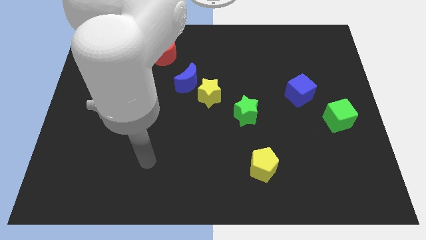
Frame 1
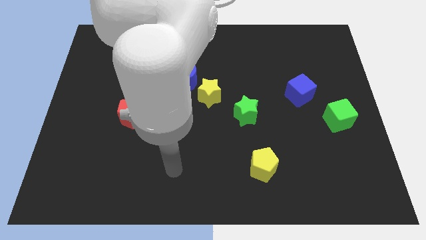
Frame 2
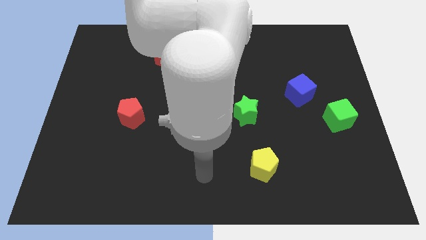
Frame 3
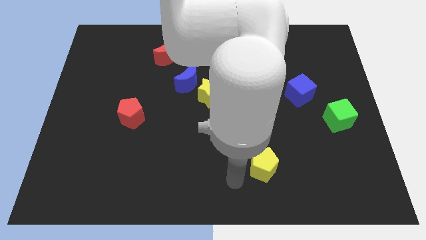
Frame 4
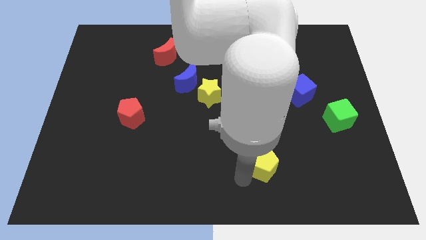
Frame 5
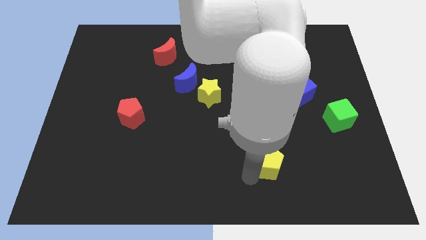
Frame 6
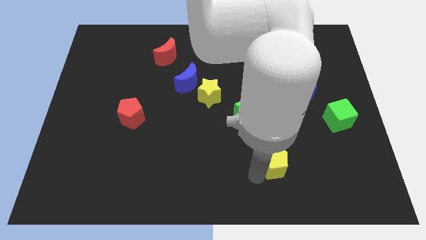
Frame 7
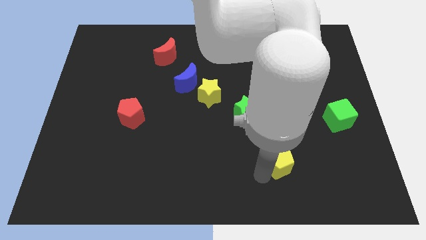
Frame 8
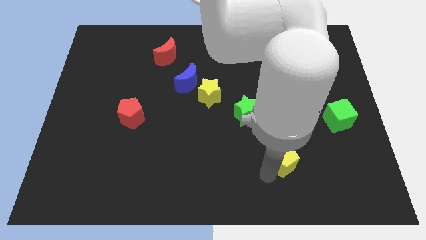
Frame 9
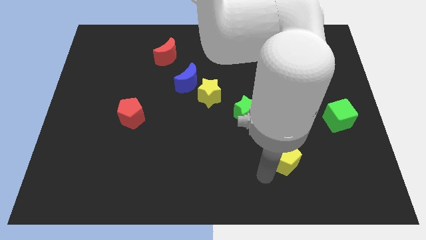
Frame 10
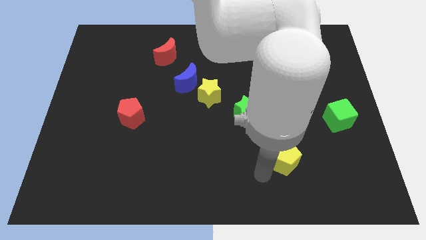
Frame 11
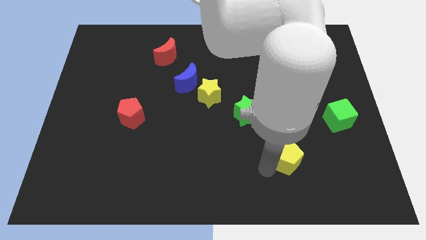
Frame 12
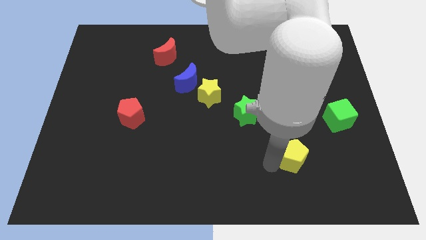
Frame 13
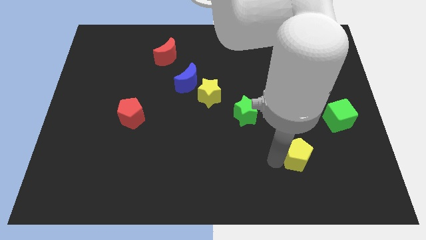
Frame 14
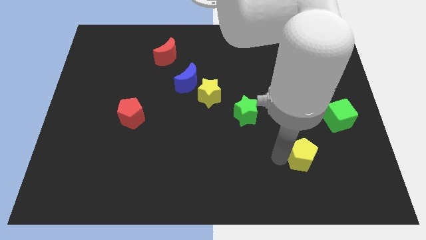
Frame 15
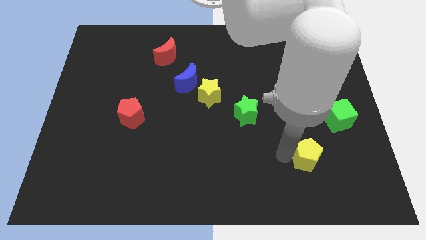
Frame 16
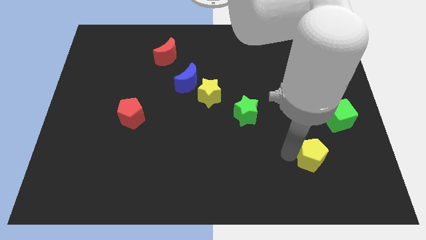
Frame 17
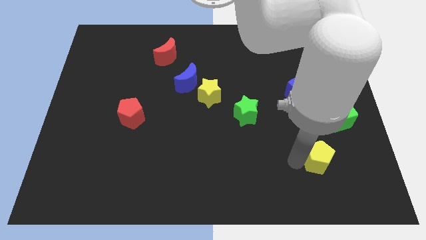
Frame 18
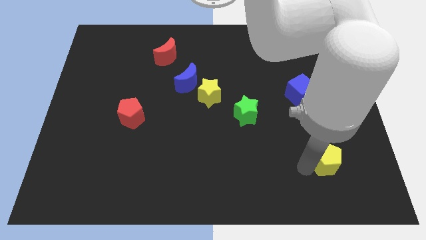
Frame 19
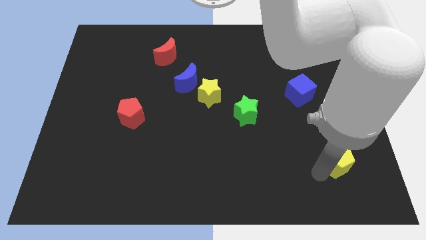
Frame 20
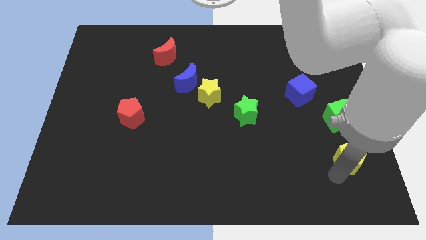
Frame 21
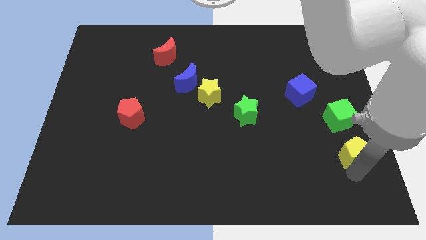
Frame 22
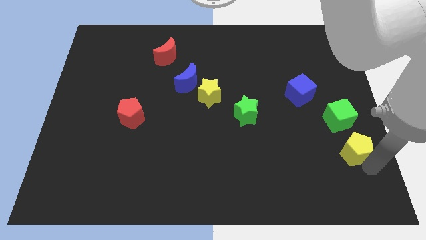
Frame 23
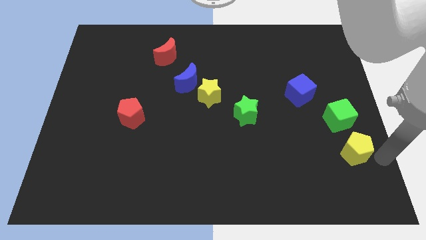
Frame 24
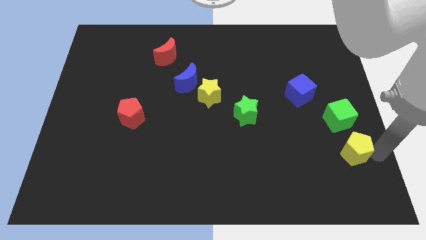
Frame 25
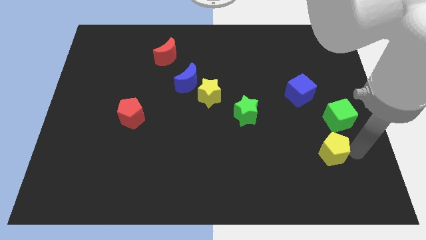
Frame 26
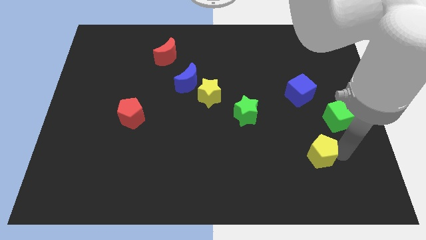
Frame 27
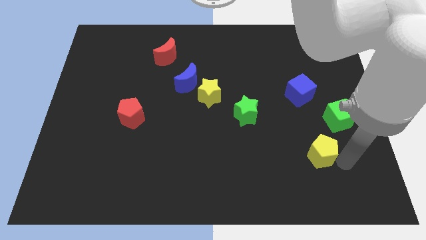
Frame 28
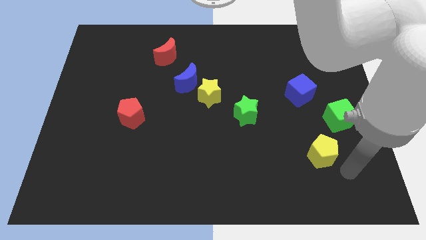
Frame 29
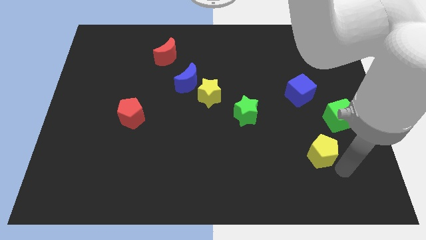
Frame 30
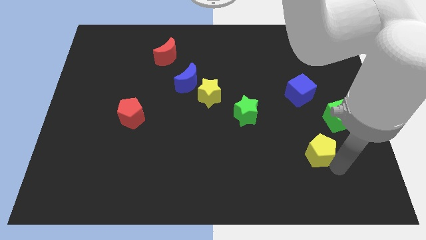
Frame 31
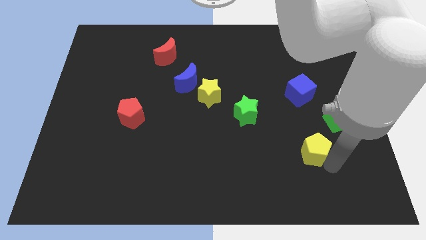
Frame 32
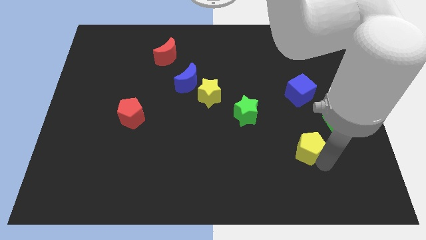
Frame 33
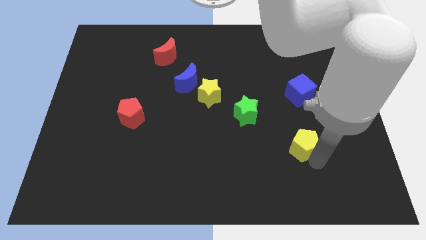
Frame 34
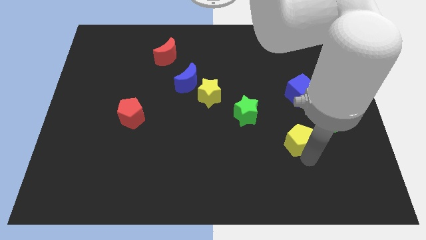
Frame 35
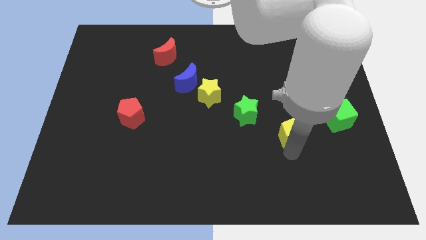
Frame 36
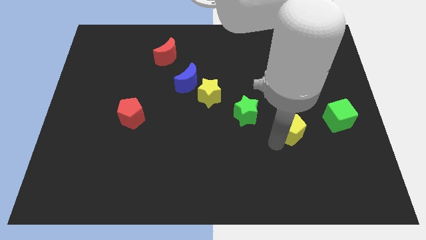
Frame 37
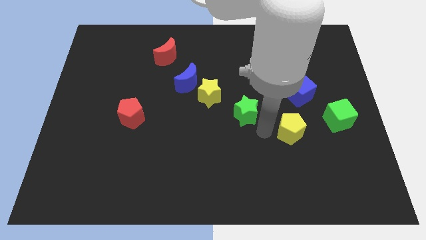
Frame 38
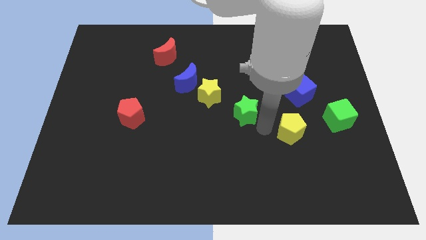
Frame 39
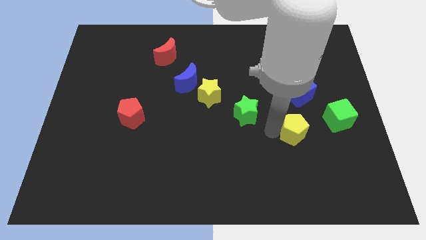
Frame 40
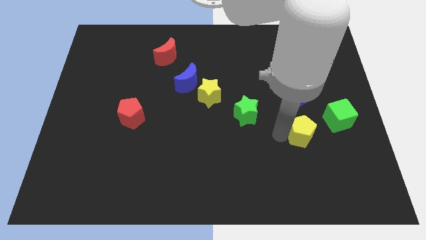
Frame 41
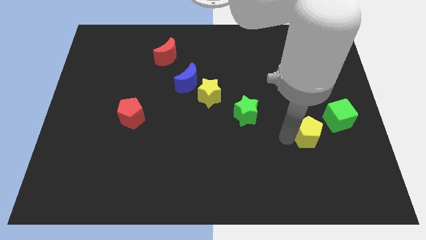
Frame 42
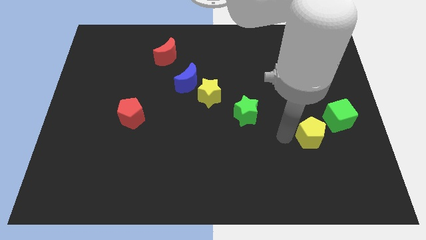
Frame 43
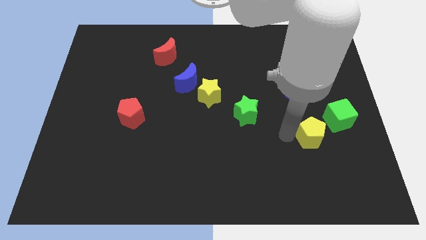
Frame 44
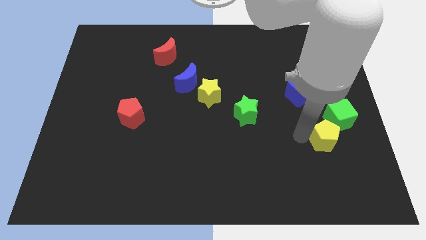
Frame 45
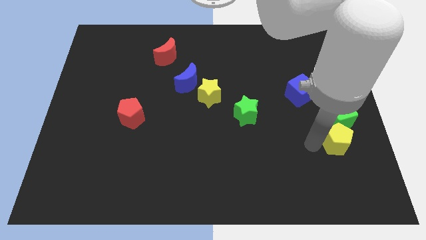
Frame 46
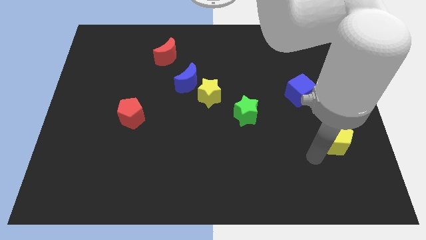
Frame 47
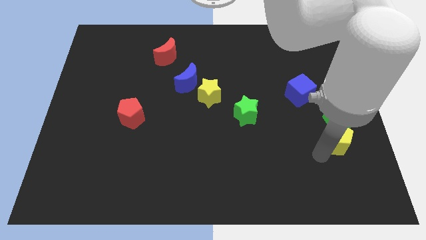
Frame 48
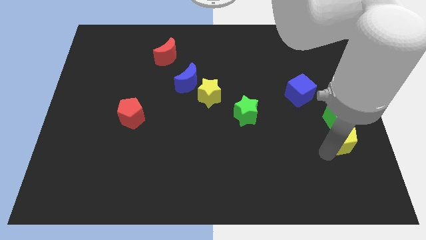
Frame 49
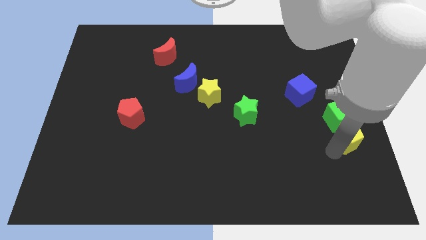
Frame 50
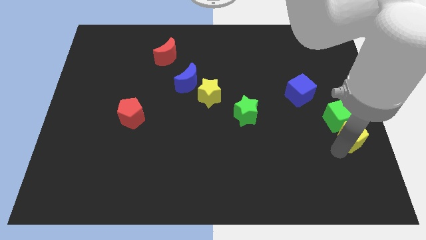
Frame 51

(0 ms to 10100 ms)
move the yellow pentagon to the right side of the board
